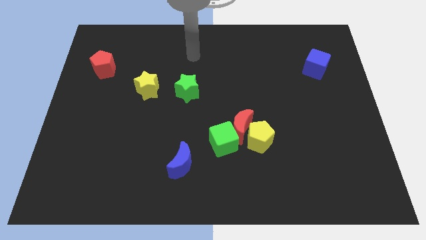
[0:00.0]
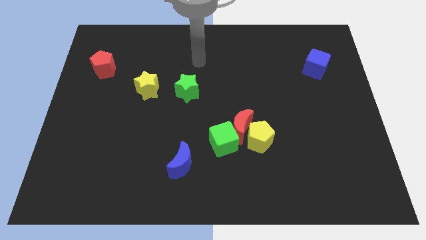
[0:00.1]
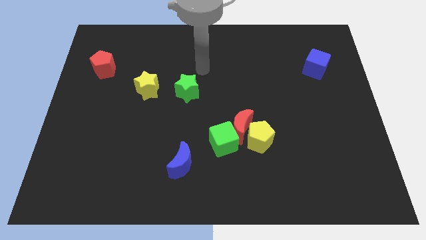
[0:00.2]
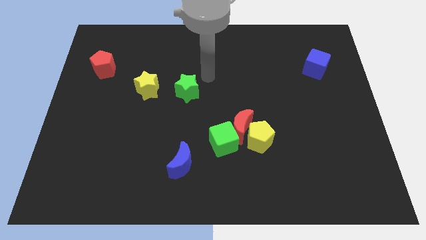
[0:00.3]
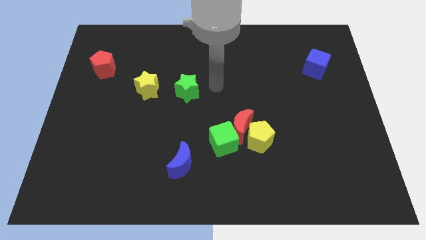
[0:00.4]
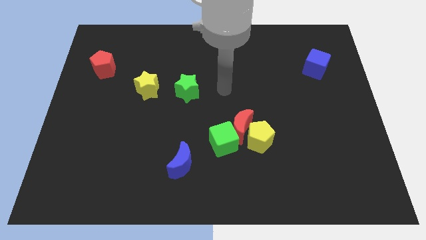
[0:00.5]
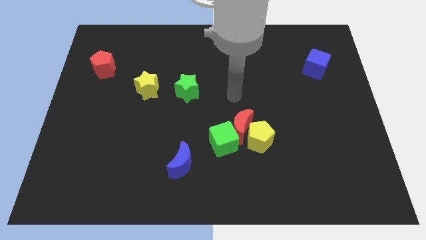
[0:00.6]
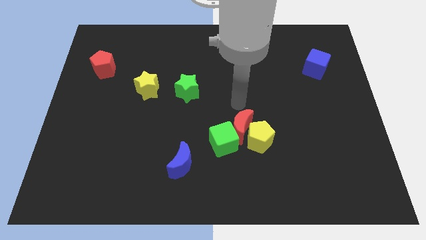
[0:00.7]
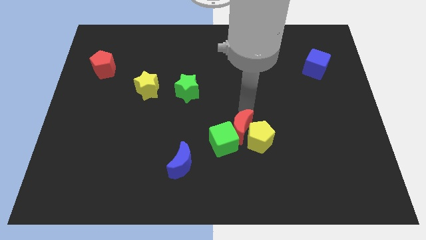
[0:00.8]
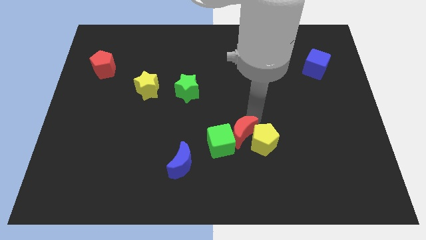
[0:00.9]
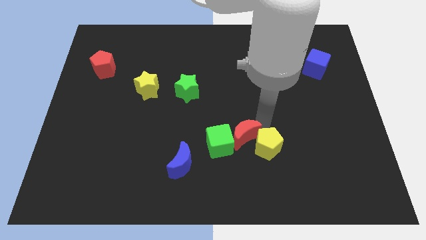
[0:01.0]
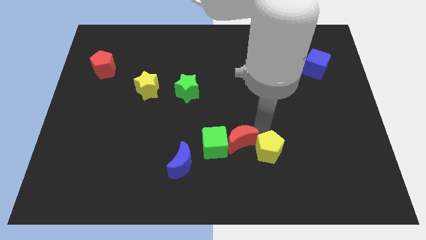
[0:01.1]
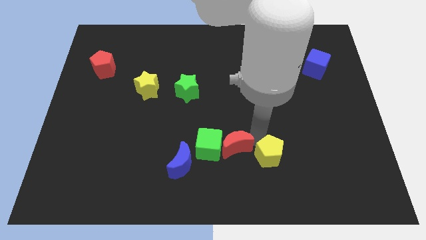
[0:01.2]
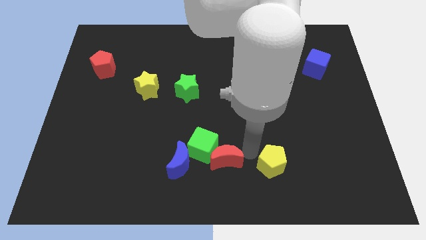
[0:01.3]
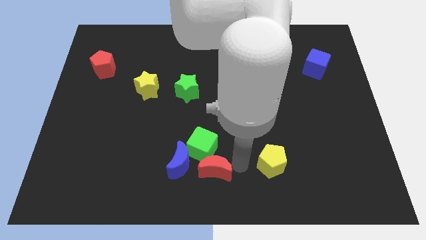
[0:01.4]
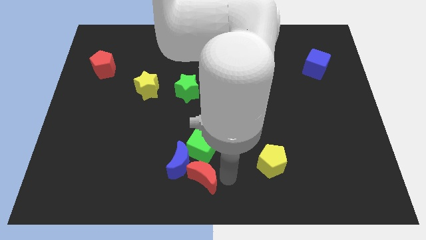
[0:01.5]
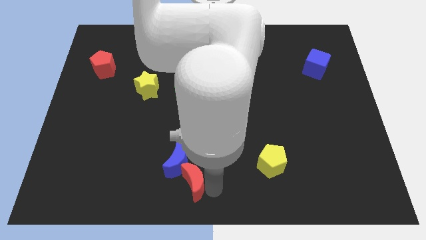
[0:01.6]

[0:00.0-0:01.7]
move the red moon away from the yellow pentagon and green cube

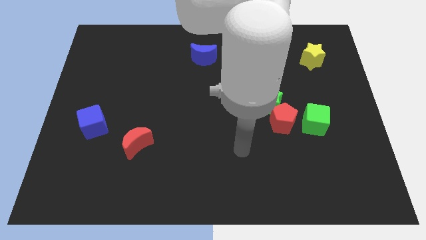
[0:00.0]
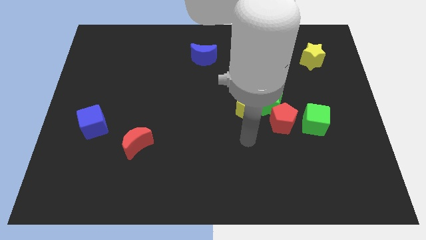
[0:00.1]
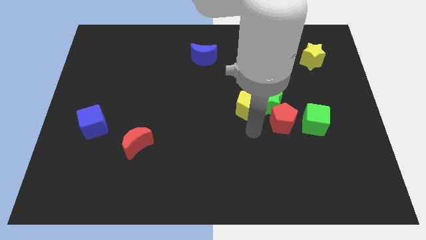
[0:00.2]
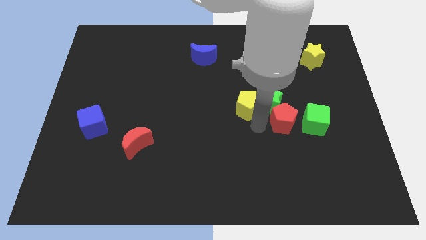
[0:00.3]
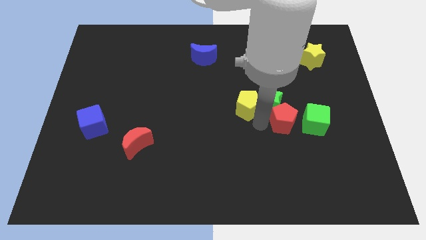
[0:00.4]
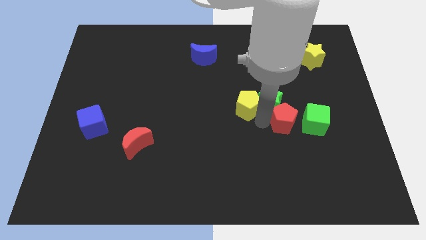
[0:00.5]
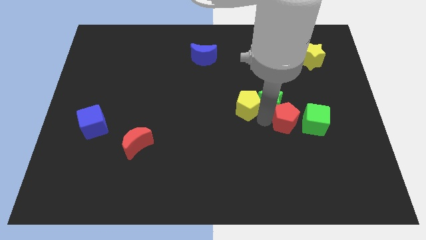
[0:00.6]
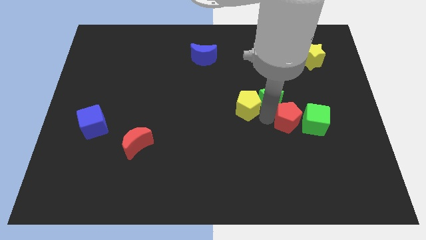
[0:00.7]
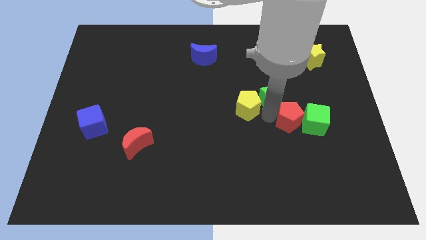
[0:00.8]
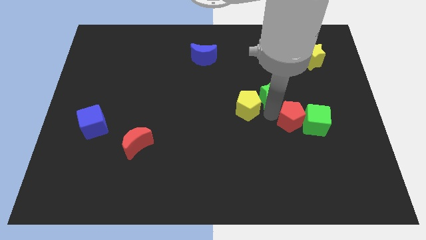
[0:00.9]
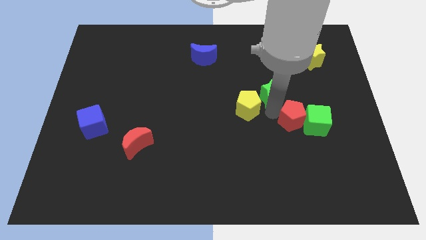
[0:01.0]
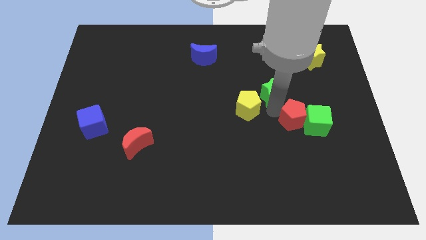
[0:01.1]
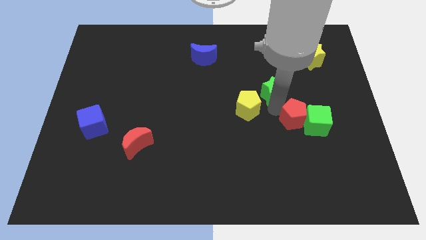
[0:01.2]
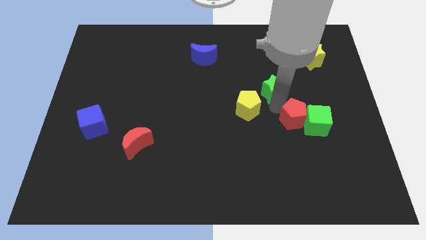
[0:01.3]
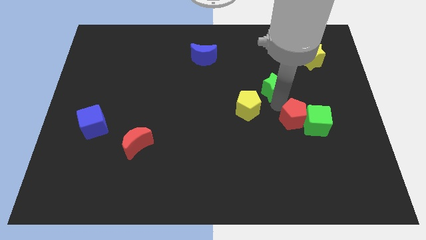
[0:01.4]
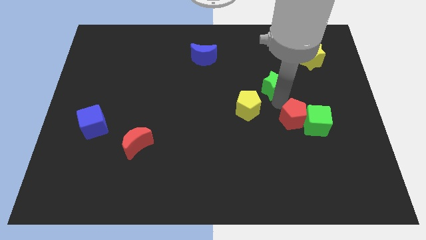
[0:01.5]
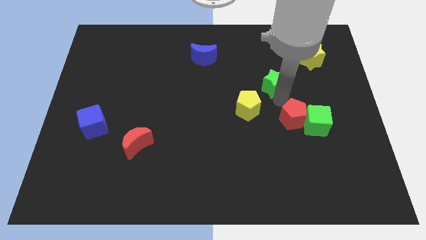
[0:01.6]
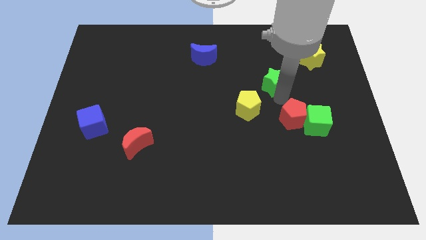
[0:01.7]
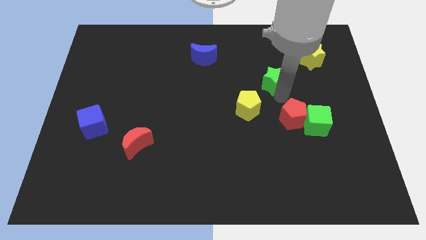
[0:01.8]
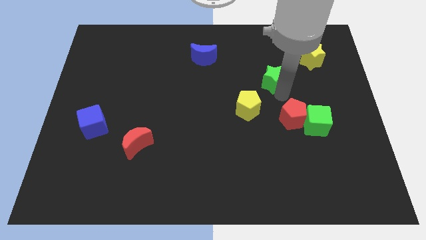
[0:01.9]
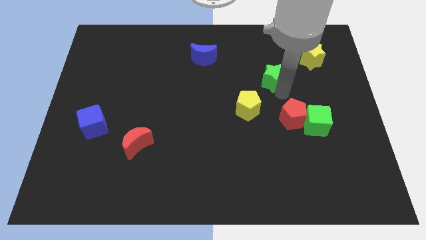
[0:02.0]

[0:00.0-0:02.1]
separate the green star from the yellow pentagon and red pentagon

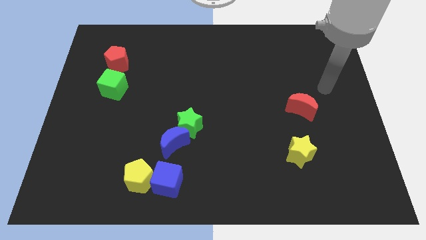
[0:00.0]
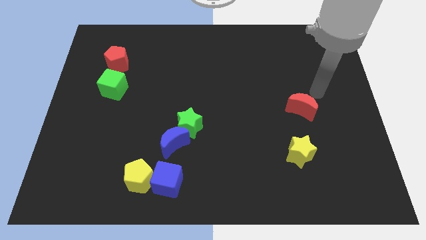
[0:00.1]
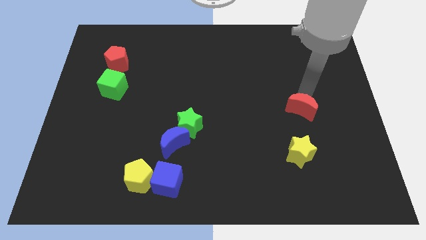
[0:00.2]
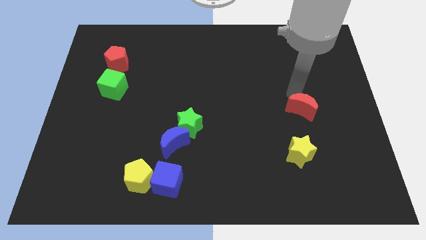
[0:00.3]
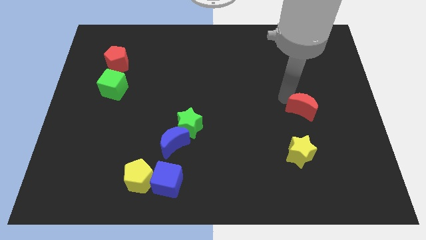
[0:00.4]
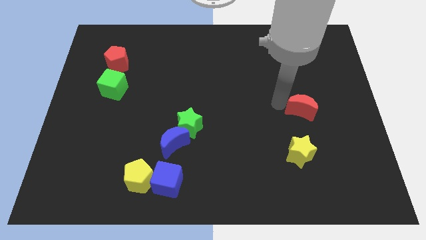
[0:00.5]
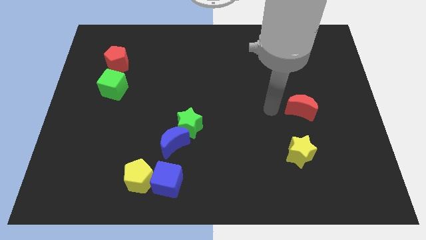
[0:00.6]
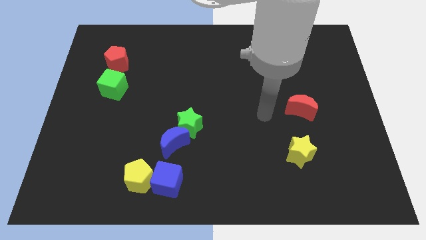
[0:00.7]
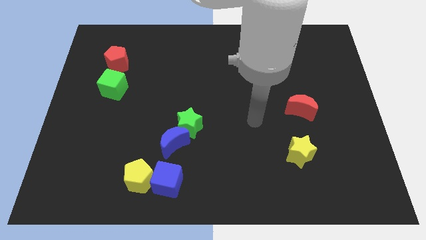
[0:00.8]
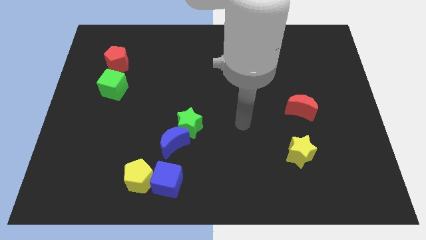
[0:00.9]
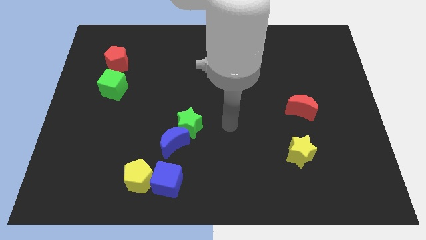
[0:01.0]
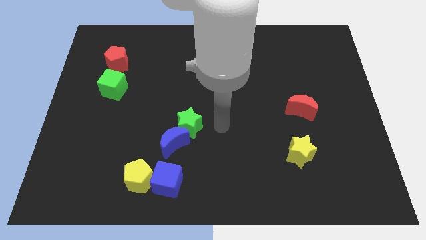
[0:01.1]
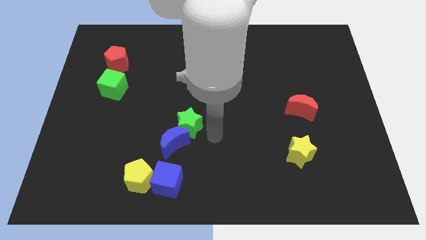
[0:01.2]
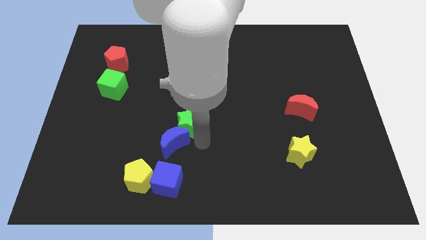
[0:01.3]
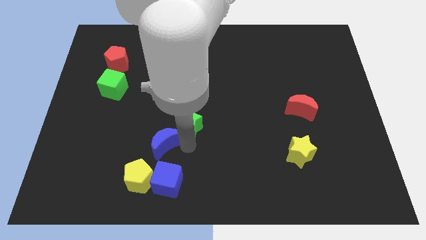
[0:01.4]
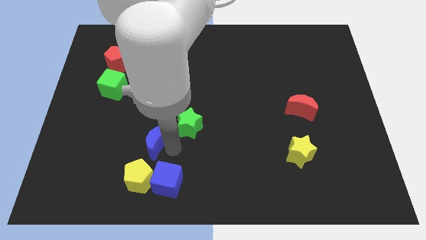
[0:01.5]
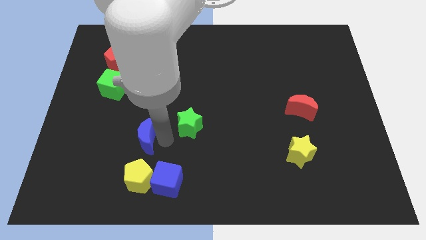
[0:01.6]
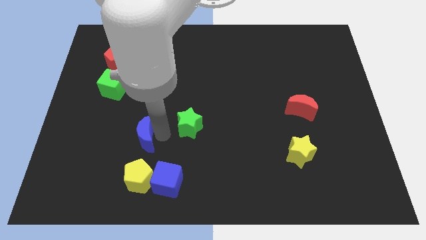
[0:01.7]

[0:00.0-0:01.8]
pull the green star apart from the blue moon

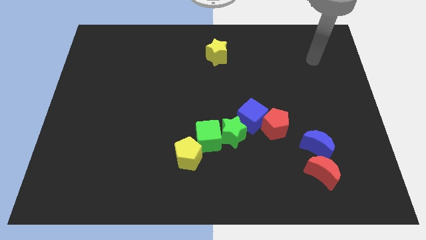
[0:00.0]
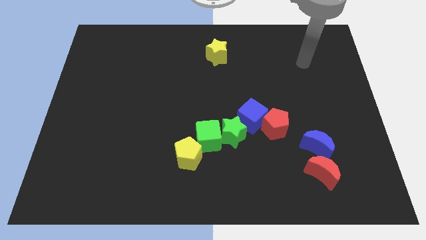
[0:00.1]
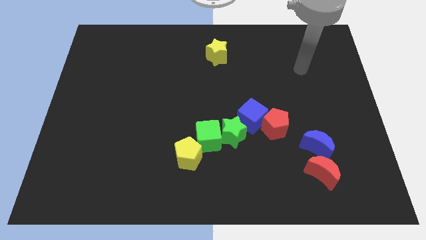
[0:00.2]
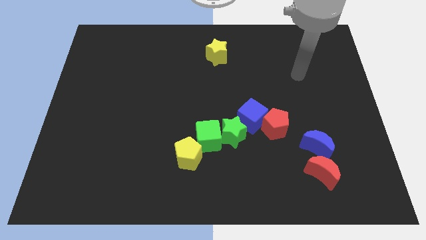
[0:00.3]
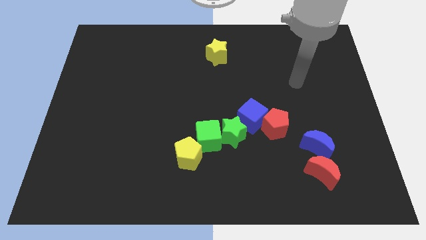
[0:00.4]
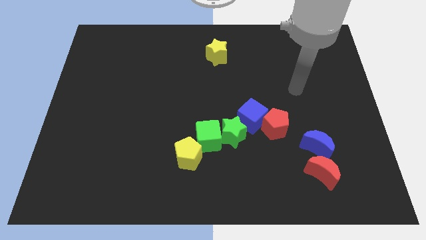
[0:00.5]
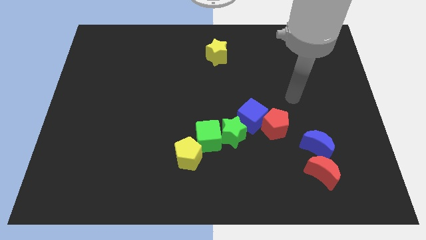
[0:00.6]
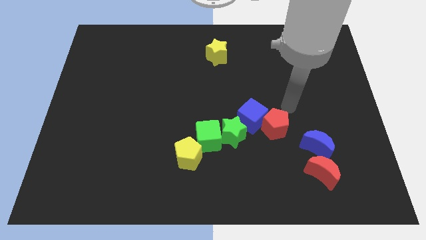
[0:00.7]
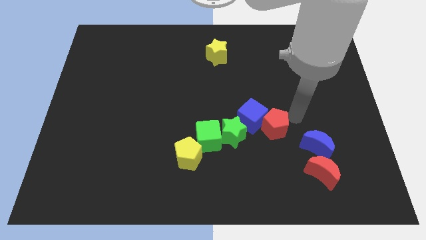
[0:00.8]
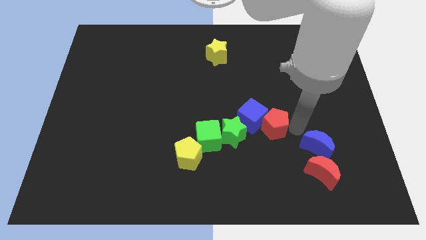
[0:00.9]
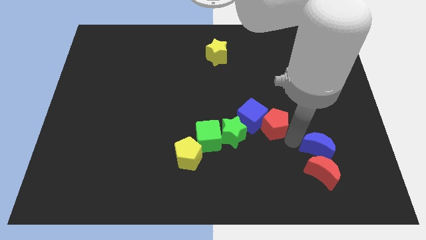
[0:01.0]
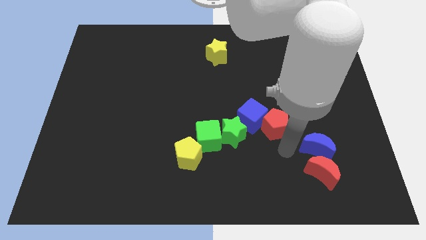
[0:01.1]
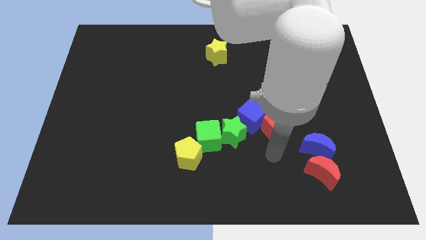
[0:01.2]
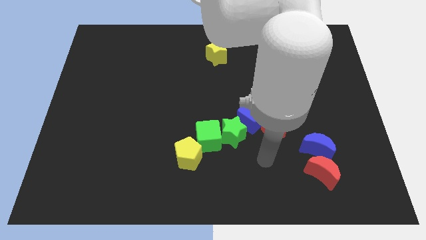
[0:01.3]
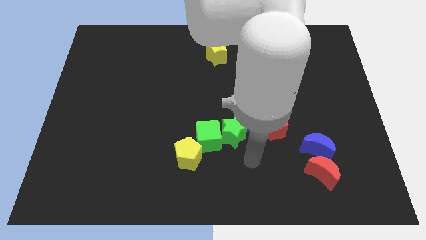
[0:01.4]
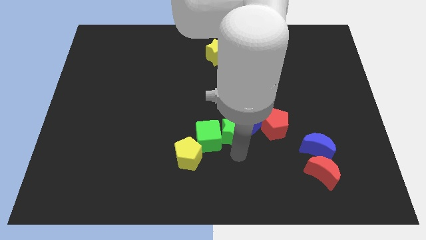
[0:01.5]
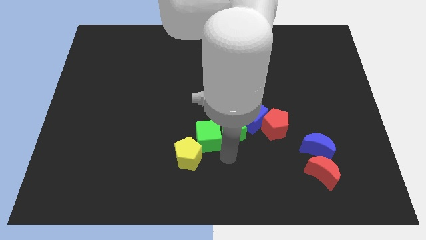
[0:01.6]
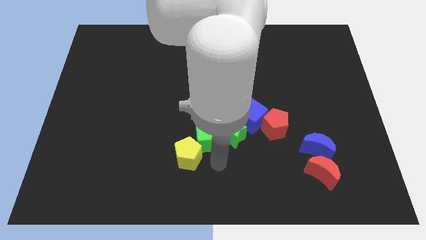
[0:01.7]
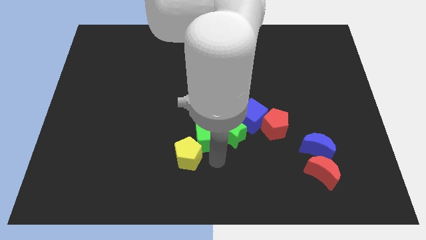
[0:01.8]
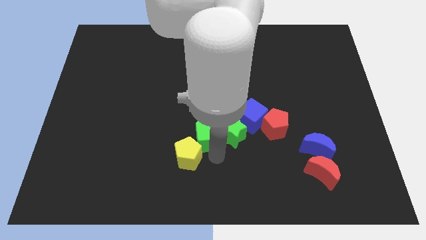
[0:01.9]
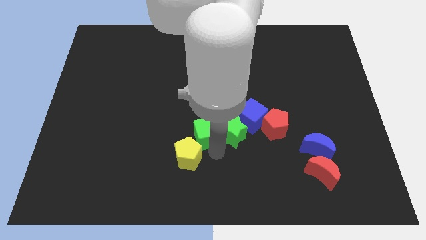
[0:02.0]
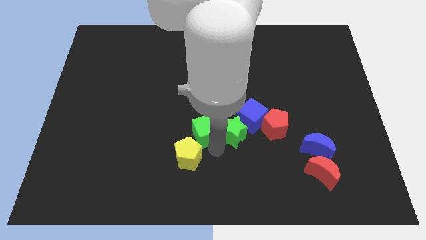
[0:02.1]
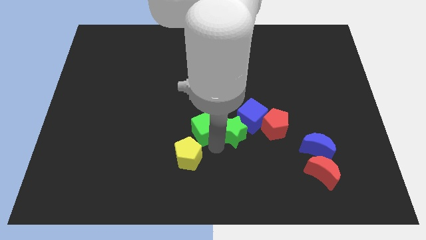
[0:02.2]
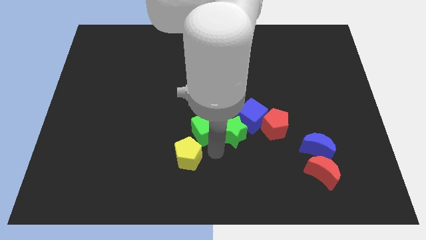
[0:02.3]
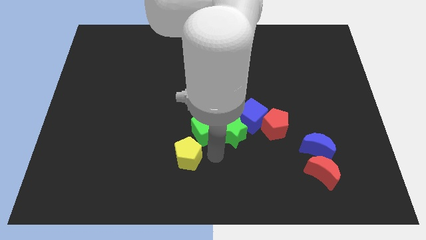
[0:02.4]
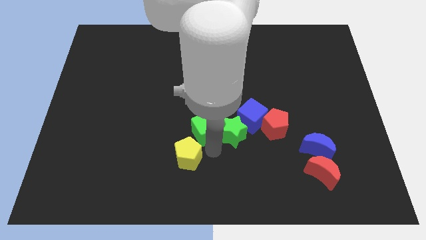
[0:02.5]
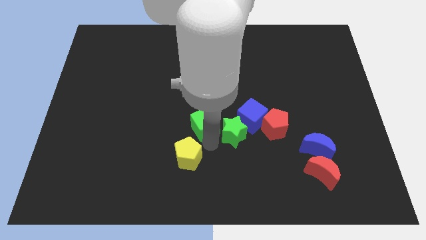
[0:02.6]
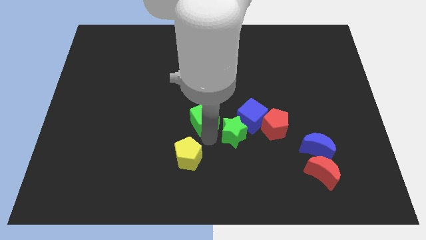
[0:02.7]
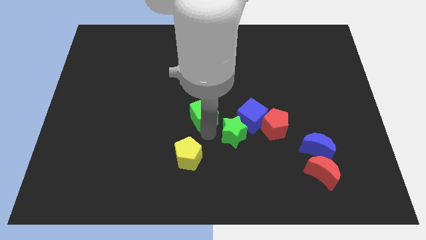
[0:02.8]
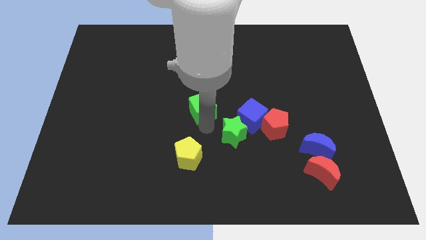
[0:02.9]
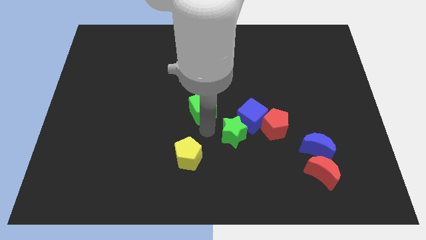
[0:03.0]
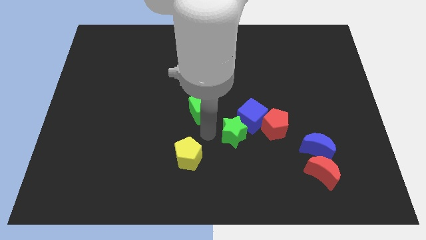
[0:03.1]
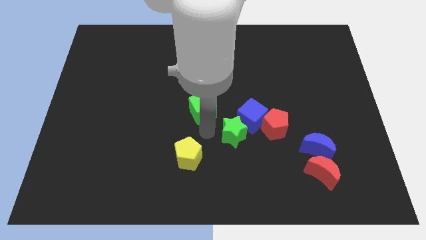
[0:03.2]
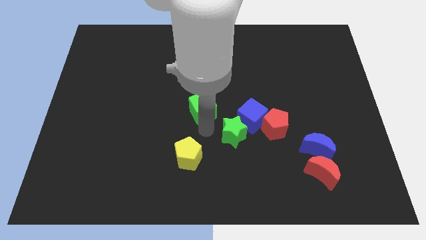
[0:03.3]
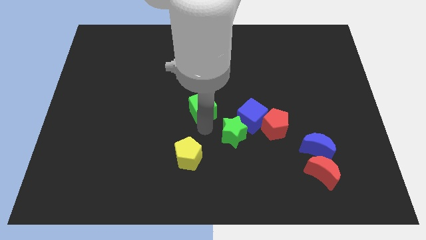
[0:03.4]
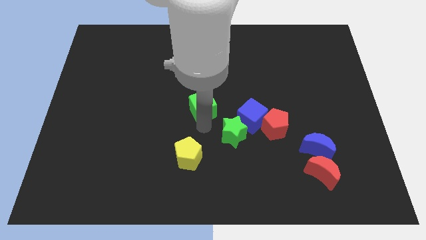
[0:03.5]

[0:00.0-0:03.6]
separate the green cube from the green star and yellow pentagon

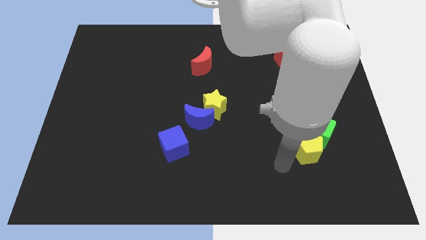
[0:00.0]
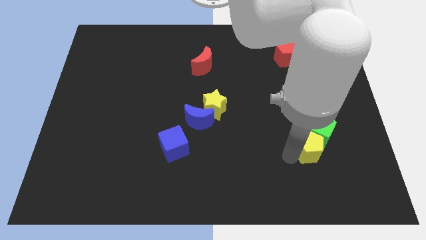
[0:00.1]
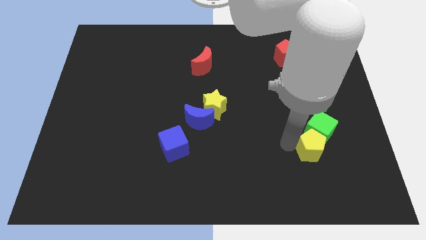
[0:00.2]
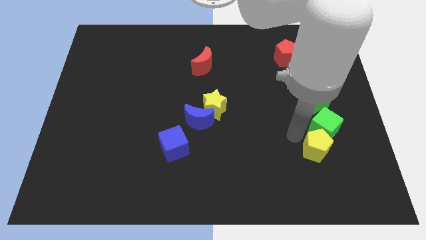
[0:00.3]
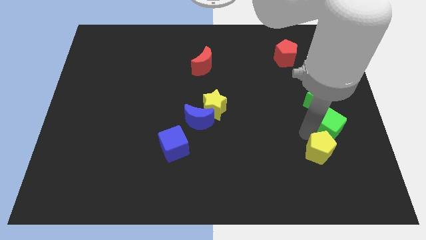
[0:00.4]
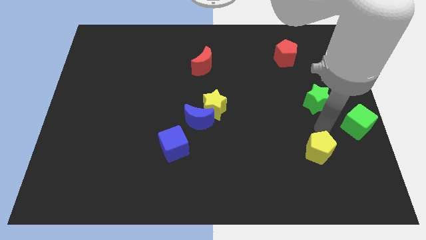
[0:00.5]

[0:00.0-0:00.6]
move the yellow pentagon away from the green cube
